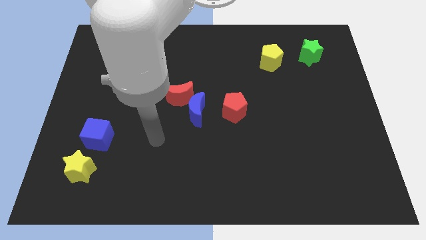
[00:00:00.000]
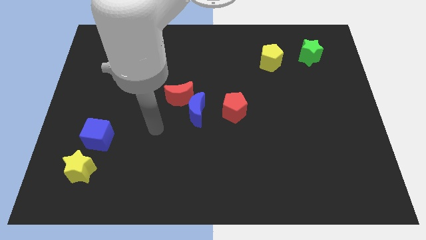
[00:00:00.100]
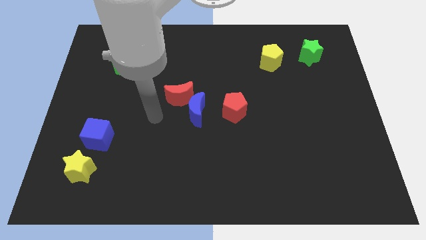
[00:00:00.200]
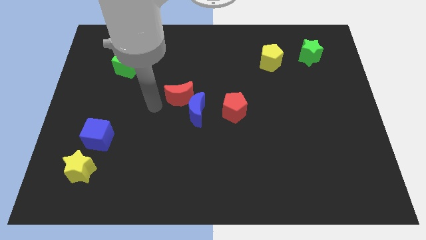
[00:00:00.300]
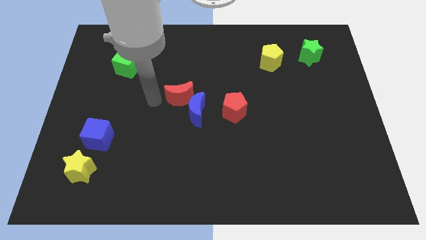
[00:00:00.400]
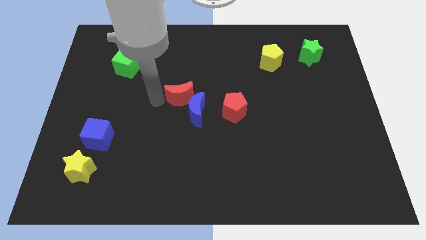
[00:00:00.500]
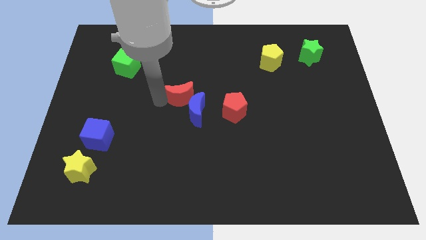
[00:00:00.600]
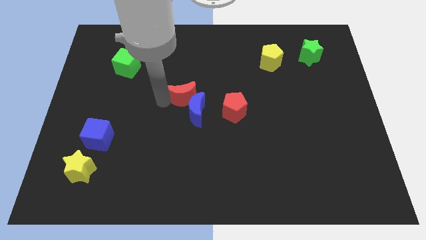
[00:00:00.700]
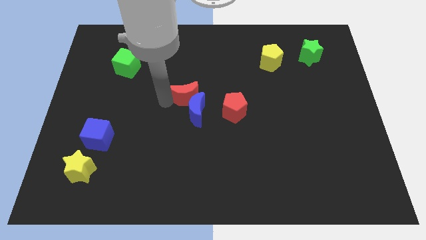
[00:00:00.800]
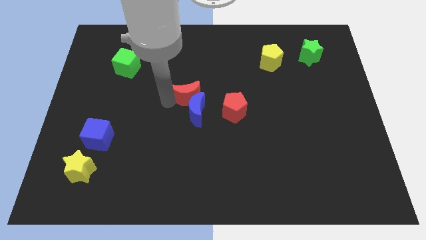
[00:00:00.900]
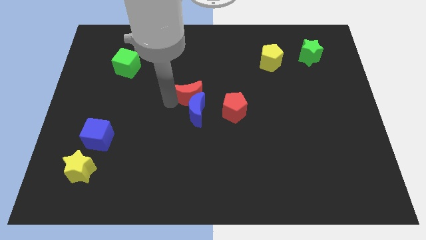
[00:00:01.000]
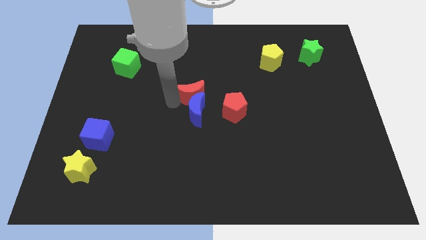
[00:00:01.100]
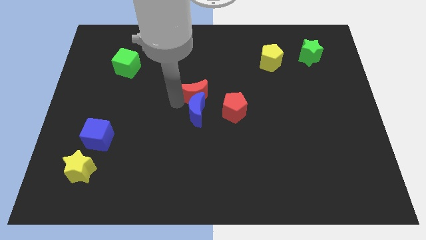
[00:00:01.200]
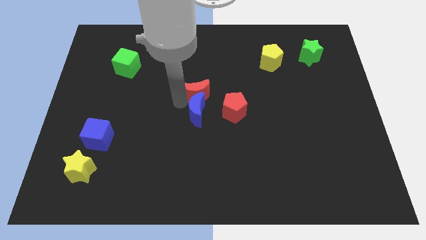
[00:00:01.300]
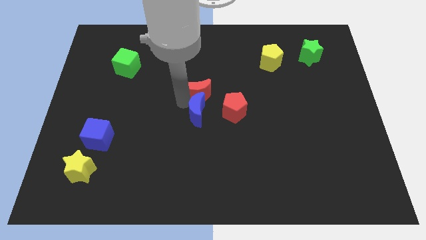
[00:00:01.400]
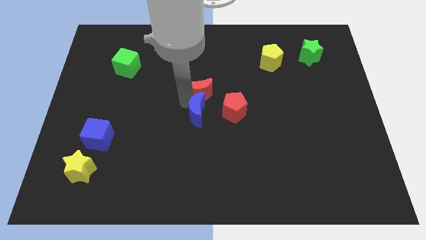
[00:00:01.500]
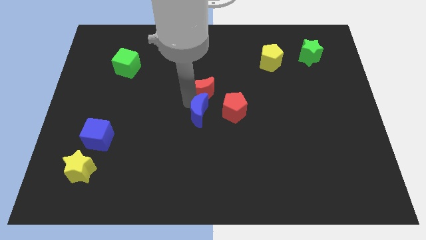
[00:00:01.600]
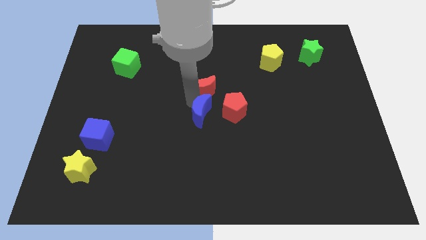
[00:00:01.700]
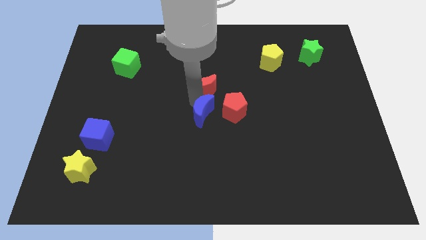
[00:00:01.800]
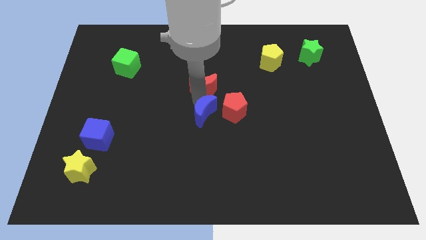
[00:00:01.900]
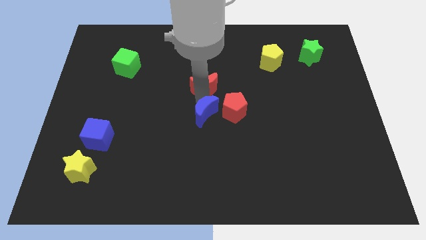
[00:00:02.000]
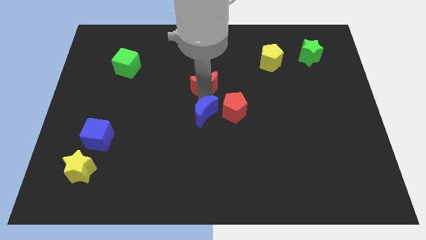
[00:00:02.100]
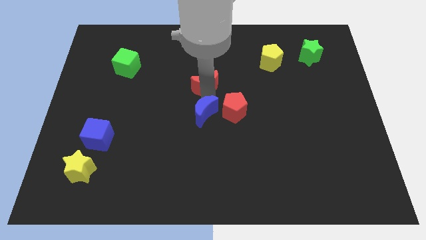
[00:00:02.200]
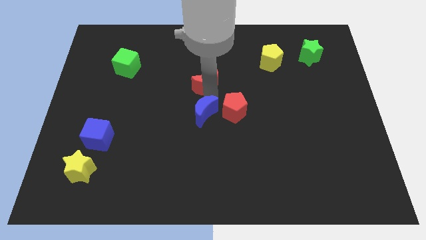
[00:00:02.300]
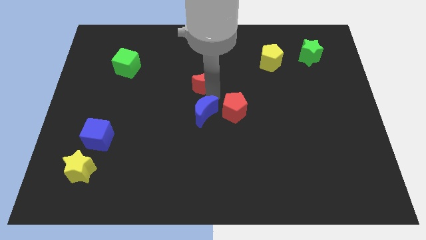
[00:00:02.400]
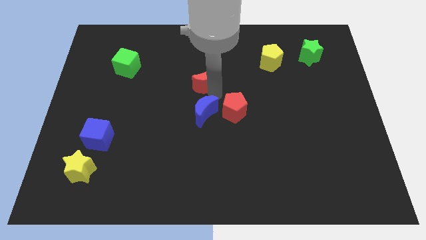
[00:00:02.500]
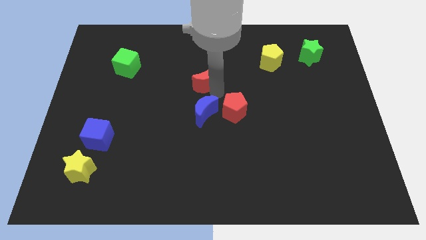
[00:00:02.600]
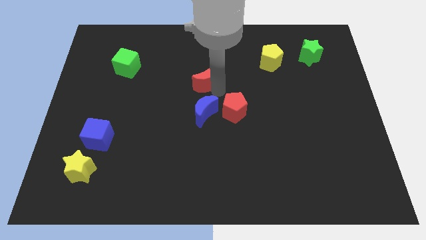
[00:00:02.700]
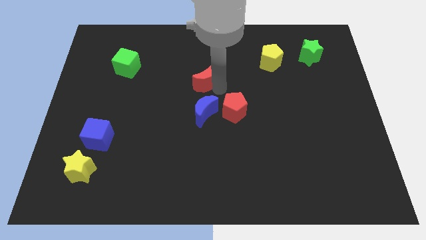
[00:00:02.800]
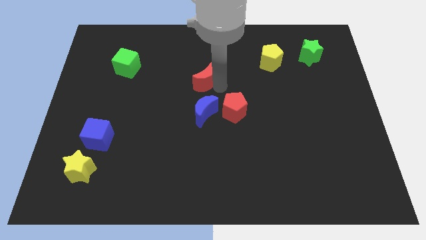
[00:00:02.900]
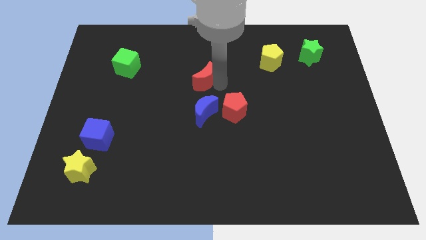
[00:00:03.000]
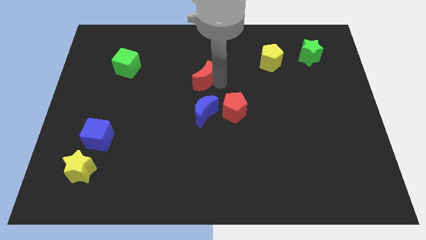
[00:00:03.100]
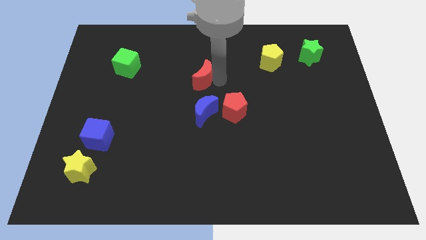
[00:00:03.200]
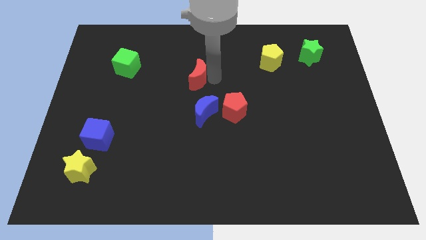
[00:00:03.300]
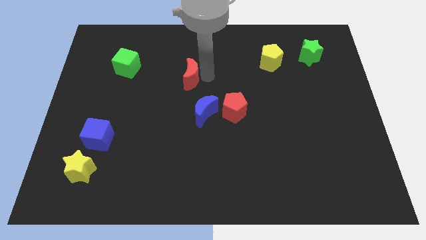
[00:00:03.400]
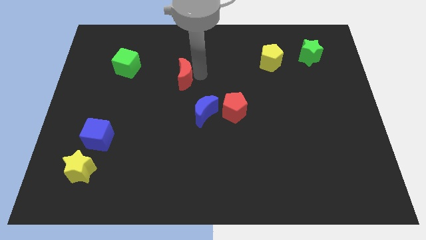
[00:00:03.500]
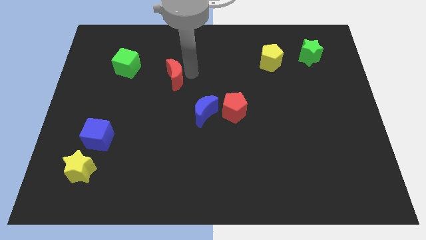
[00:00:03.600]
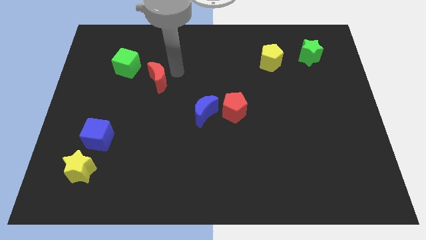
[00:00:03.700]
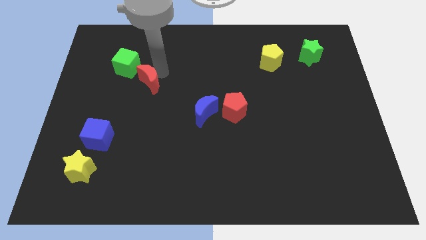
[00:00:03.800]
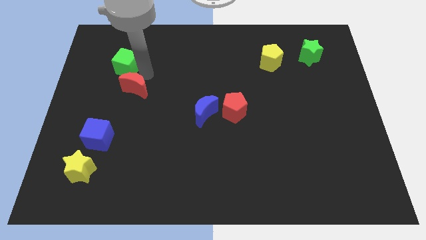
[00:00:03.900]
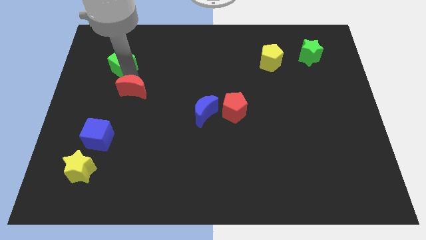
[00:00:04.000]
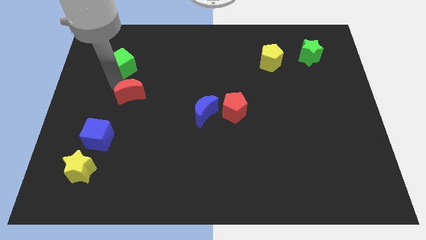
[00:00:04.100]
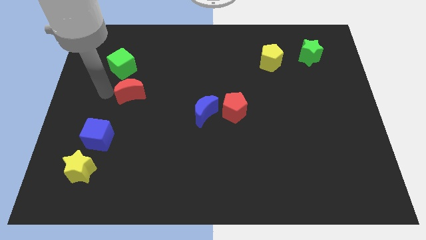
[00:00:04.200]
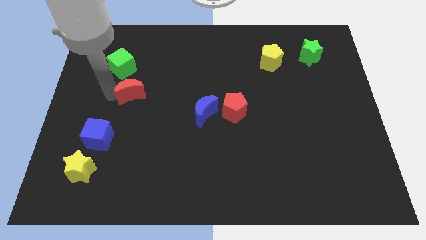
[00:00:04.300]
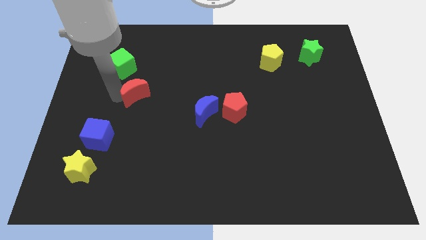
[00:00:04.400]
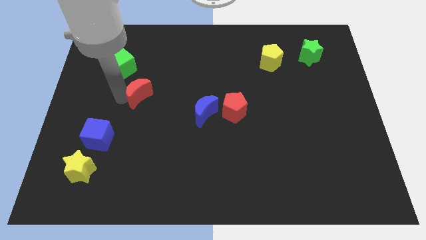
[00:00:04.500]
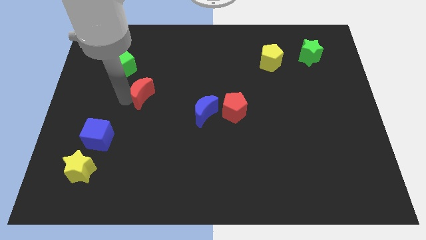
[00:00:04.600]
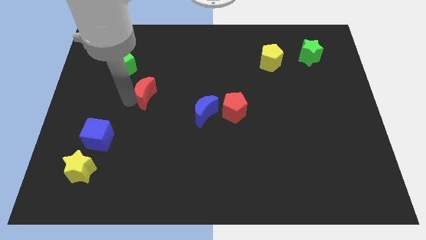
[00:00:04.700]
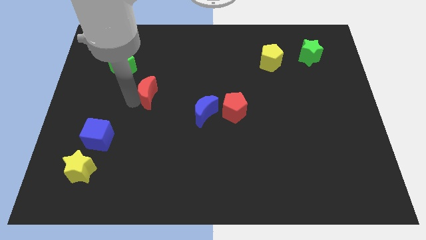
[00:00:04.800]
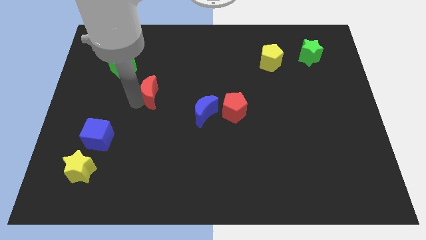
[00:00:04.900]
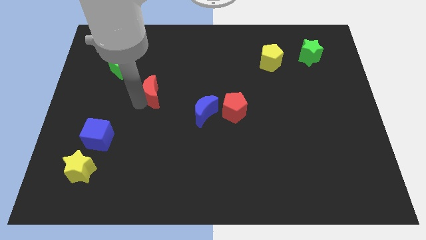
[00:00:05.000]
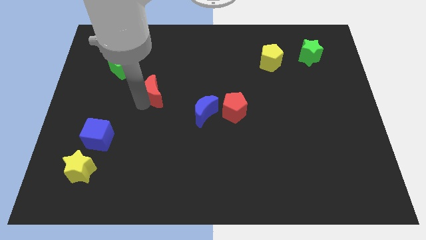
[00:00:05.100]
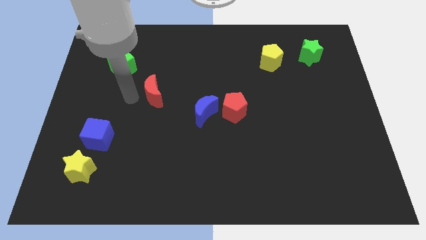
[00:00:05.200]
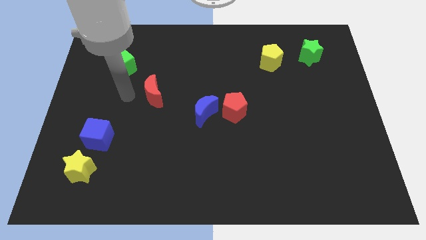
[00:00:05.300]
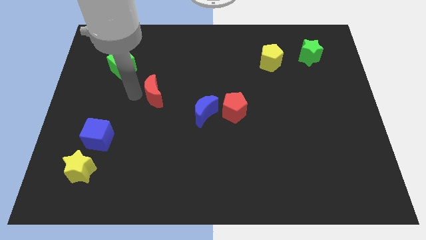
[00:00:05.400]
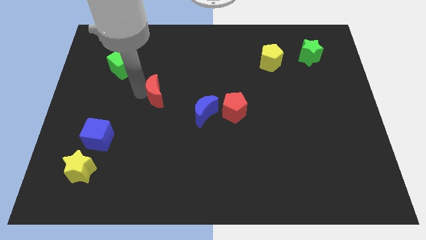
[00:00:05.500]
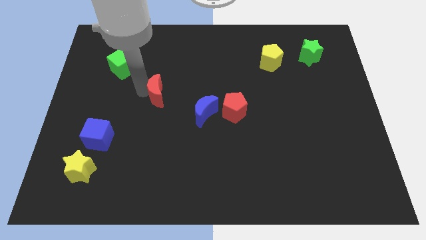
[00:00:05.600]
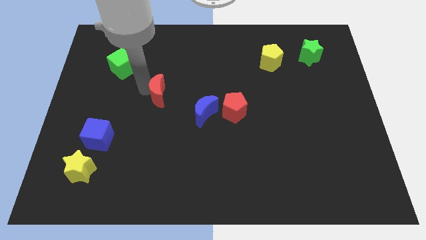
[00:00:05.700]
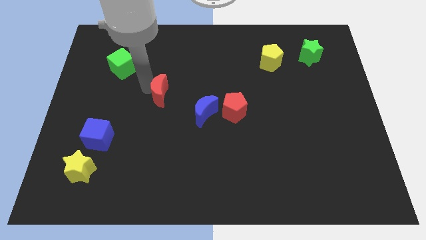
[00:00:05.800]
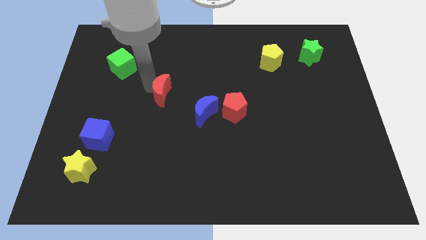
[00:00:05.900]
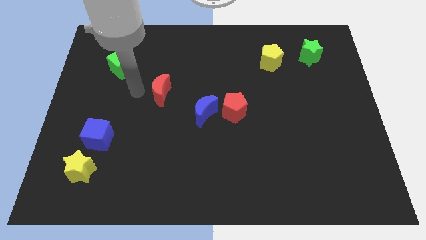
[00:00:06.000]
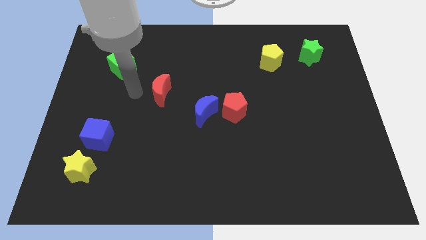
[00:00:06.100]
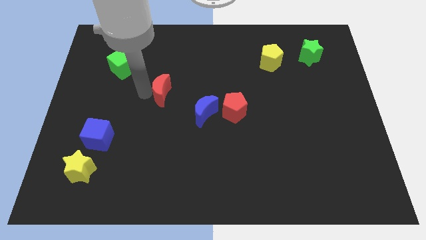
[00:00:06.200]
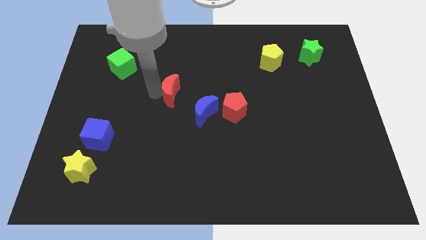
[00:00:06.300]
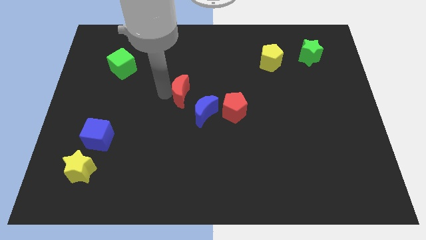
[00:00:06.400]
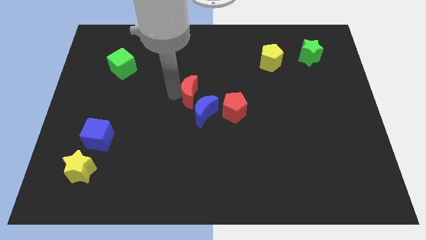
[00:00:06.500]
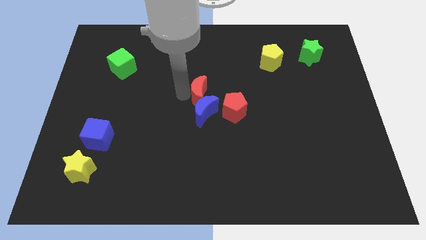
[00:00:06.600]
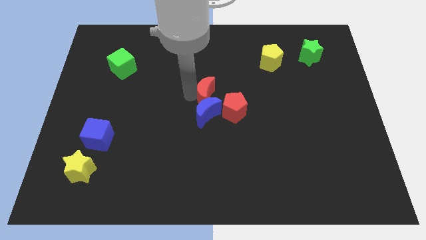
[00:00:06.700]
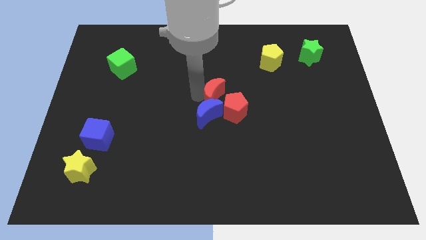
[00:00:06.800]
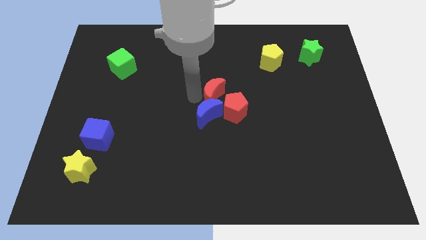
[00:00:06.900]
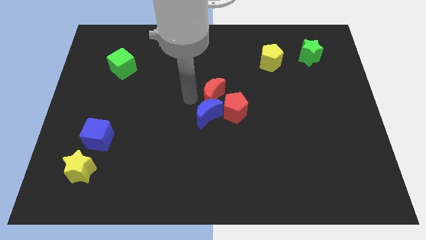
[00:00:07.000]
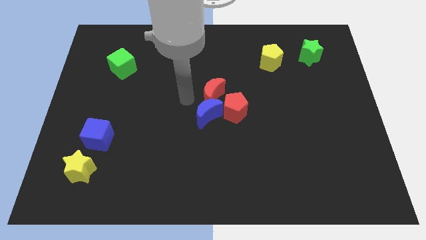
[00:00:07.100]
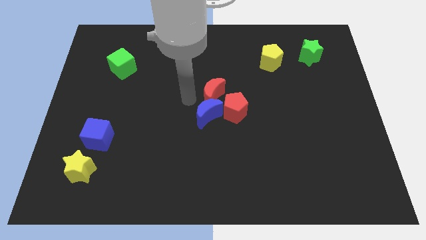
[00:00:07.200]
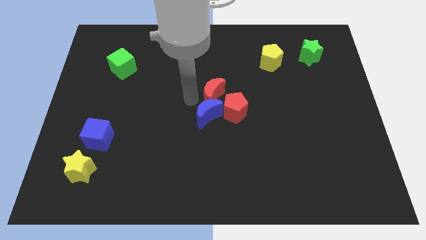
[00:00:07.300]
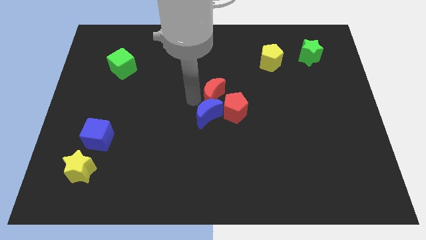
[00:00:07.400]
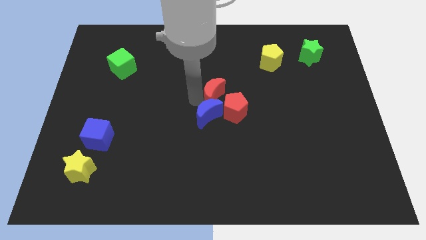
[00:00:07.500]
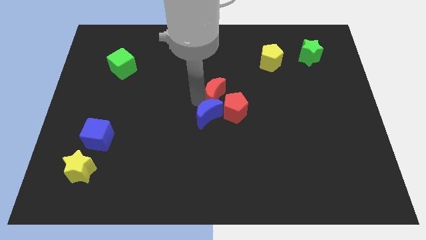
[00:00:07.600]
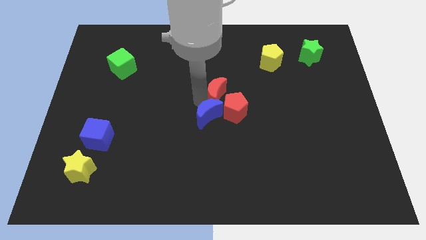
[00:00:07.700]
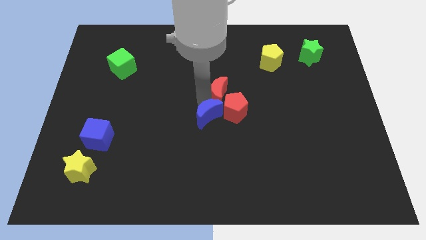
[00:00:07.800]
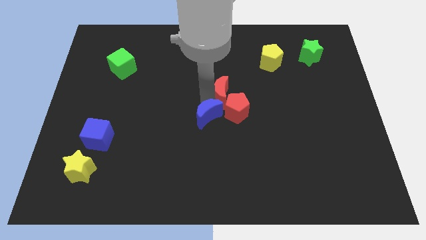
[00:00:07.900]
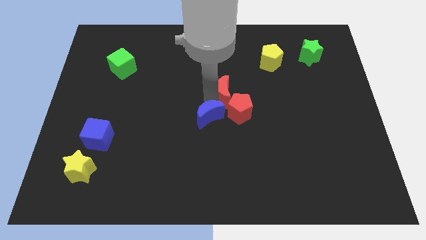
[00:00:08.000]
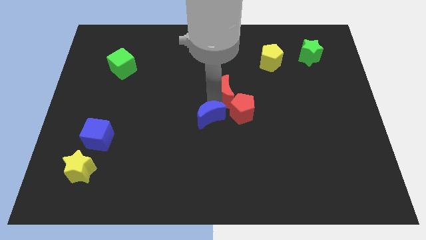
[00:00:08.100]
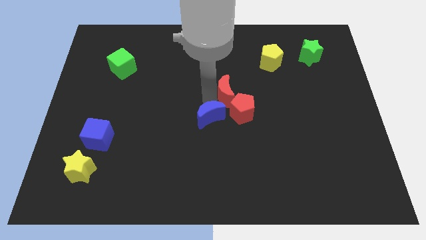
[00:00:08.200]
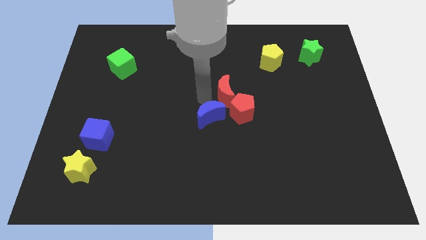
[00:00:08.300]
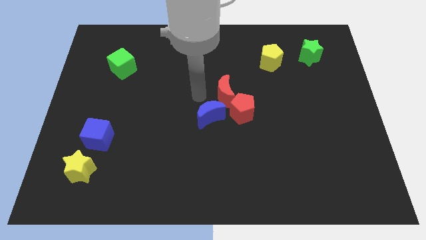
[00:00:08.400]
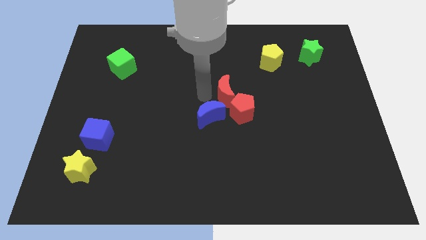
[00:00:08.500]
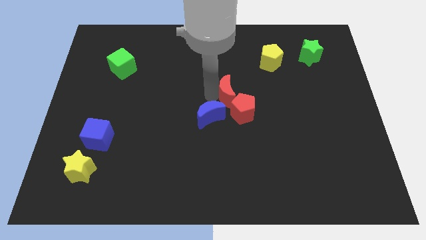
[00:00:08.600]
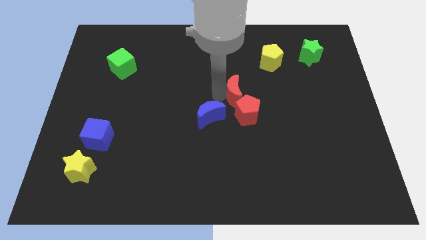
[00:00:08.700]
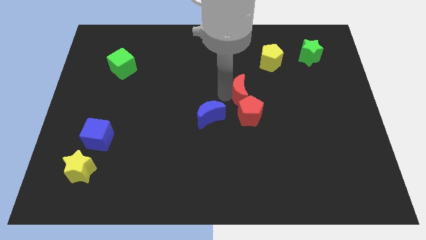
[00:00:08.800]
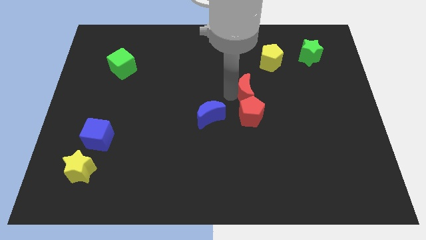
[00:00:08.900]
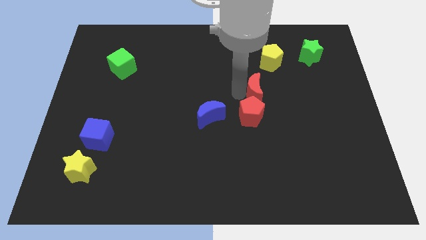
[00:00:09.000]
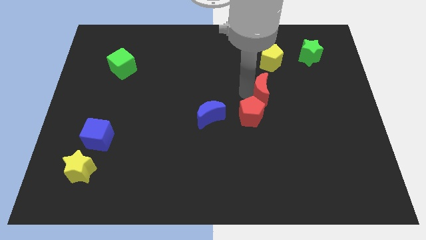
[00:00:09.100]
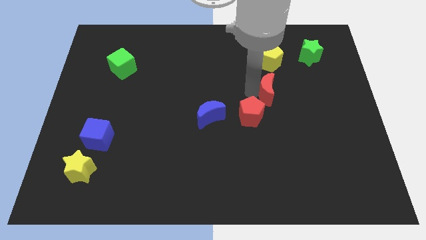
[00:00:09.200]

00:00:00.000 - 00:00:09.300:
slide the red moon right
